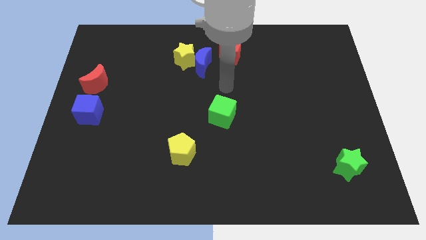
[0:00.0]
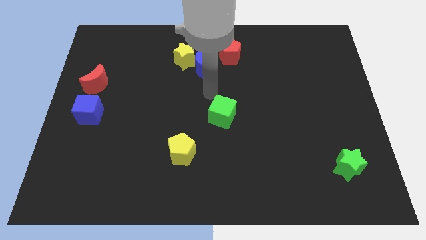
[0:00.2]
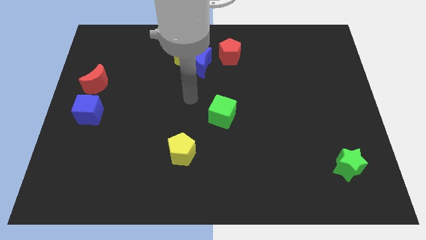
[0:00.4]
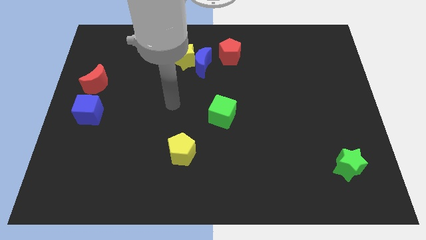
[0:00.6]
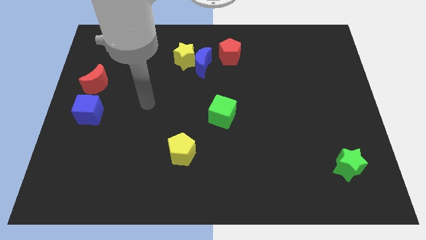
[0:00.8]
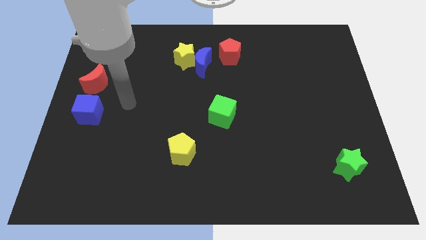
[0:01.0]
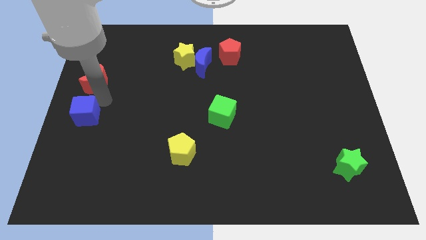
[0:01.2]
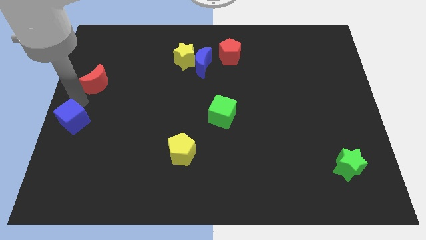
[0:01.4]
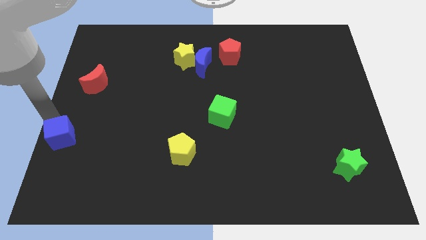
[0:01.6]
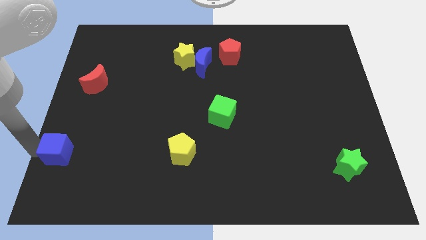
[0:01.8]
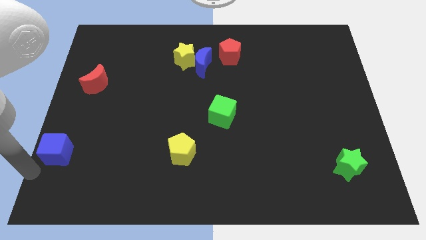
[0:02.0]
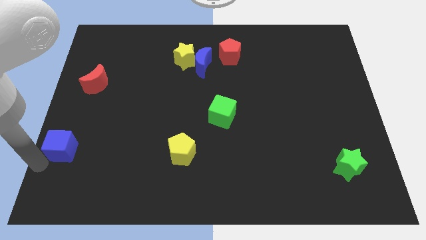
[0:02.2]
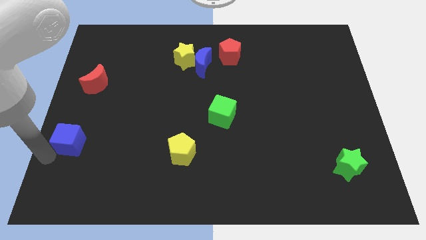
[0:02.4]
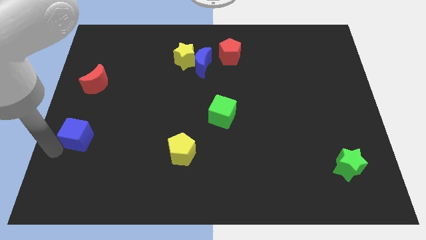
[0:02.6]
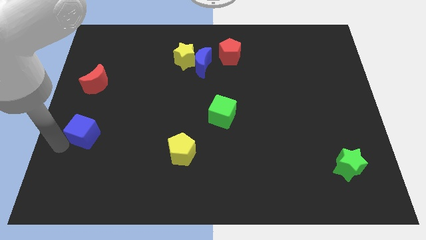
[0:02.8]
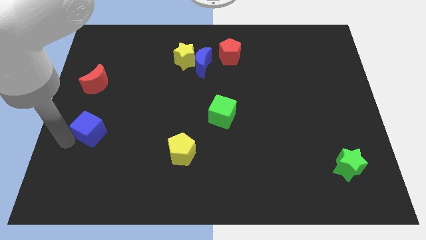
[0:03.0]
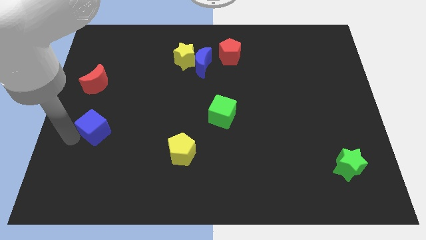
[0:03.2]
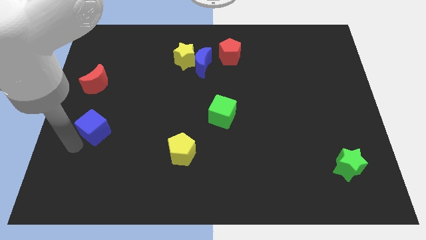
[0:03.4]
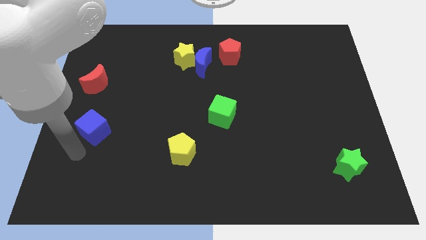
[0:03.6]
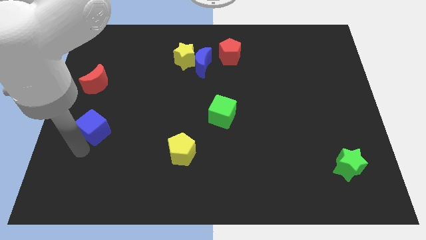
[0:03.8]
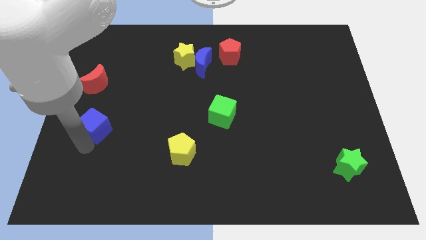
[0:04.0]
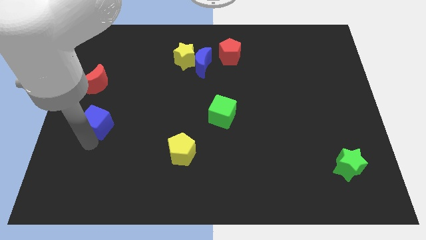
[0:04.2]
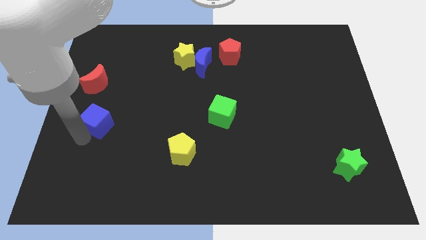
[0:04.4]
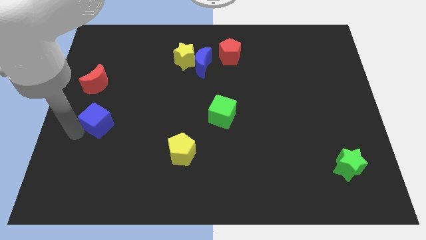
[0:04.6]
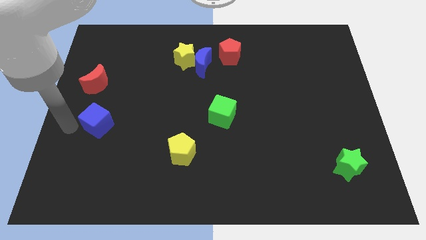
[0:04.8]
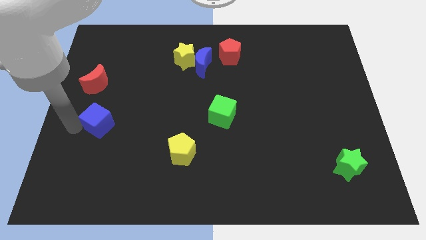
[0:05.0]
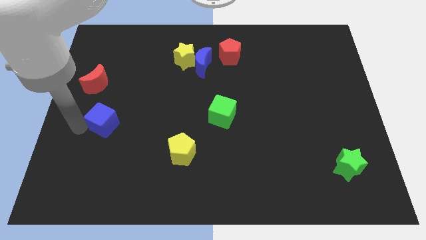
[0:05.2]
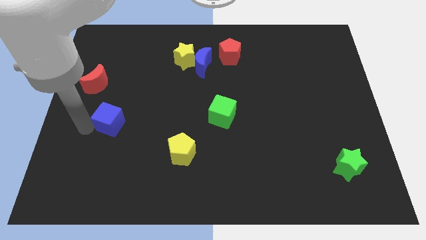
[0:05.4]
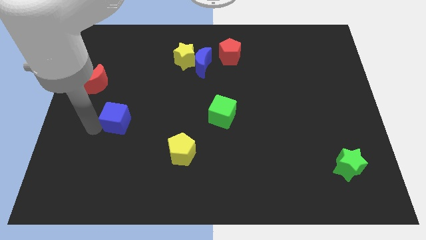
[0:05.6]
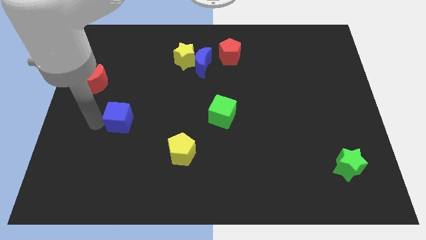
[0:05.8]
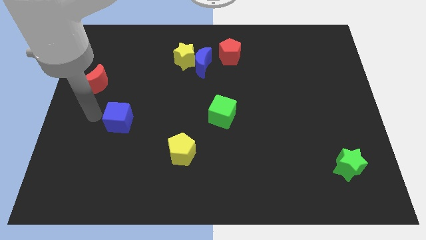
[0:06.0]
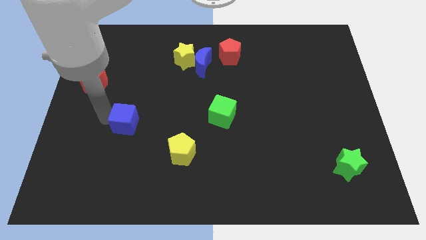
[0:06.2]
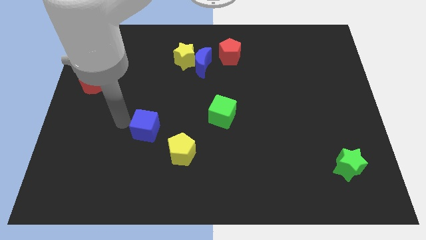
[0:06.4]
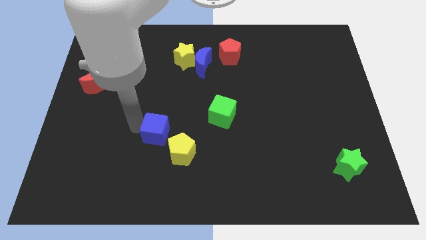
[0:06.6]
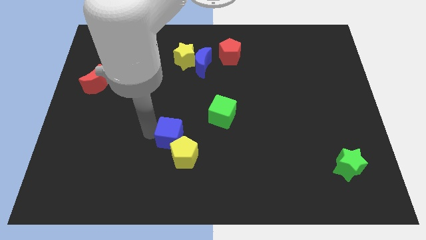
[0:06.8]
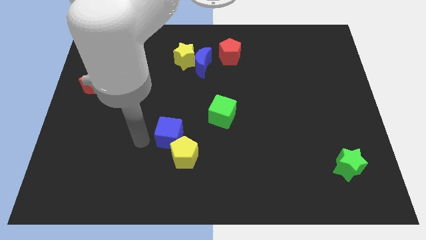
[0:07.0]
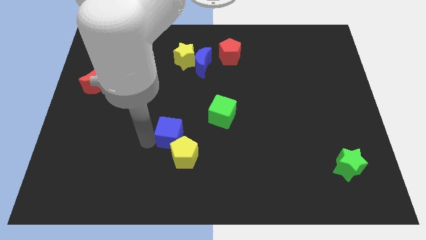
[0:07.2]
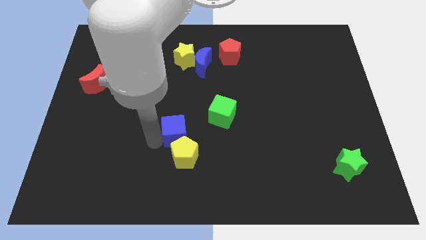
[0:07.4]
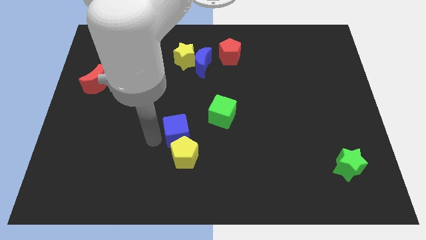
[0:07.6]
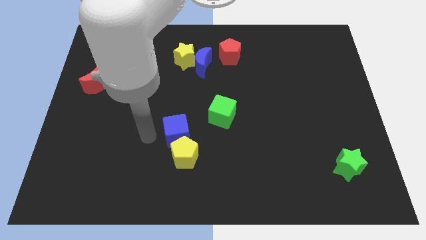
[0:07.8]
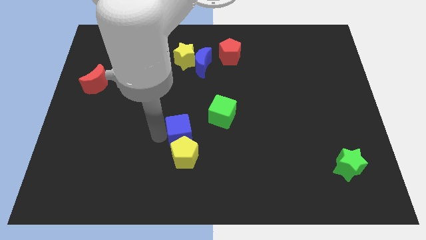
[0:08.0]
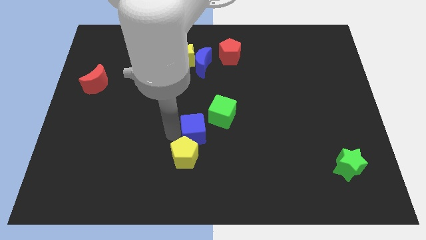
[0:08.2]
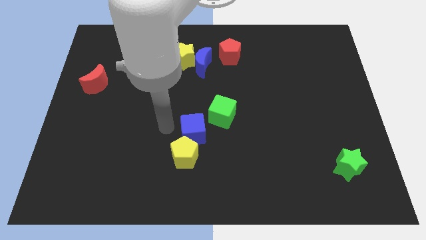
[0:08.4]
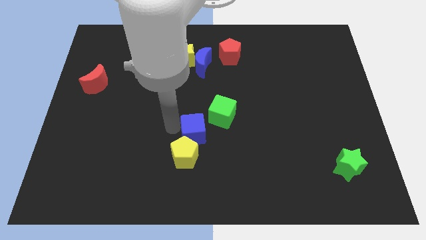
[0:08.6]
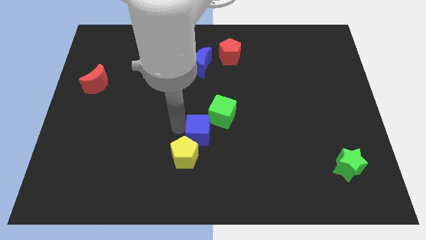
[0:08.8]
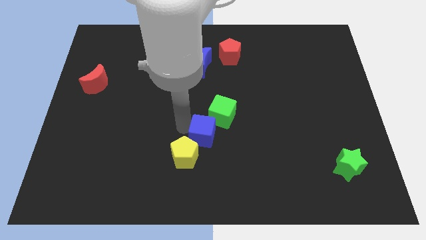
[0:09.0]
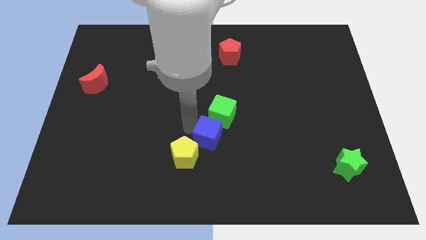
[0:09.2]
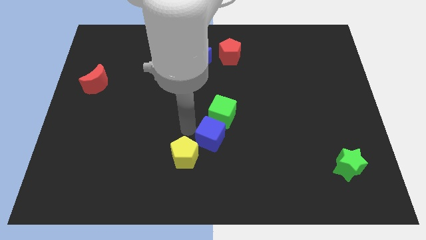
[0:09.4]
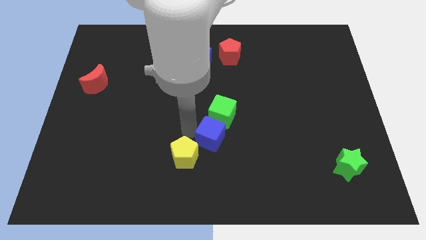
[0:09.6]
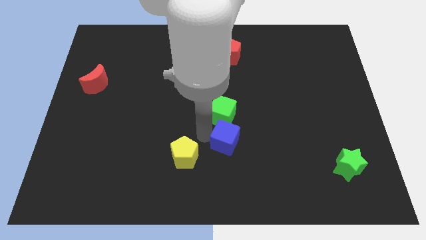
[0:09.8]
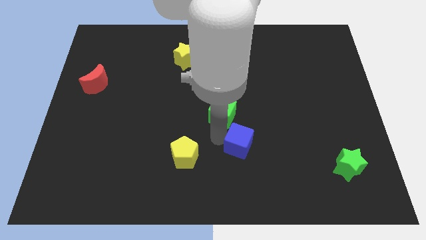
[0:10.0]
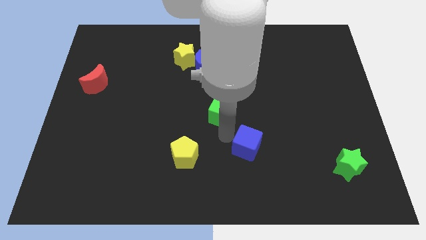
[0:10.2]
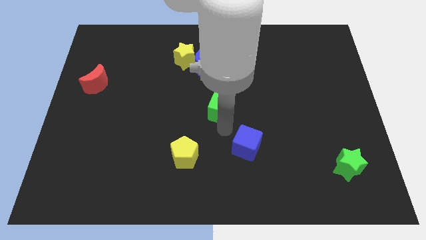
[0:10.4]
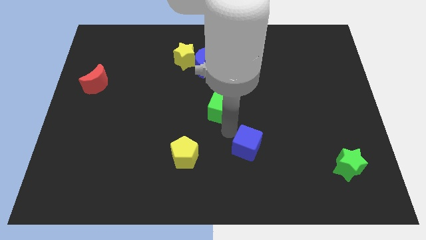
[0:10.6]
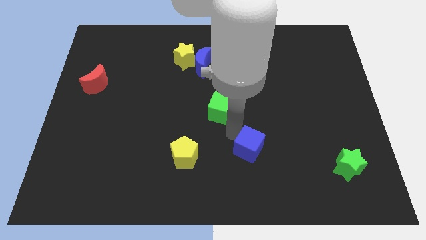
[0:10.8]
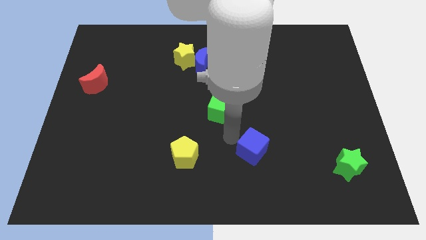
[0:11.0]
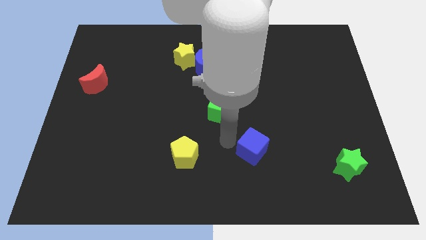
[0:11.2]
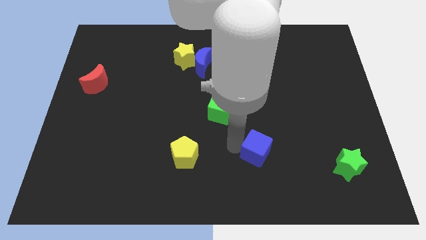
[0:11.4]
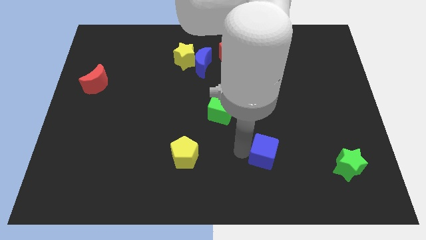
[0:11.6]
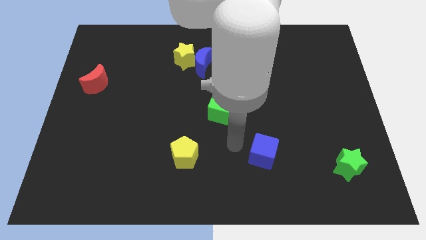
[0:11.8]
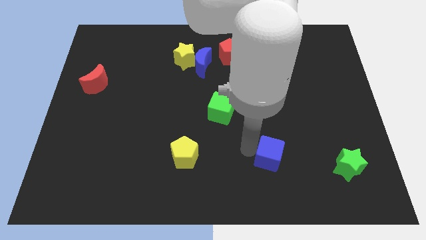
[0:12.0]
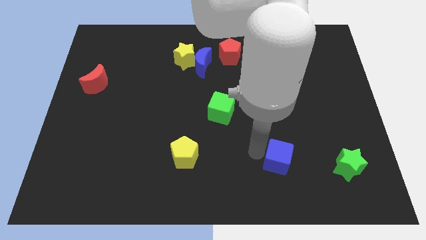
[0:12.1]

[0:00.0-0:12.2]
push the blue cube to the left of the green star

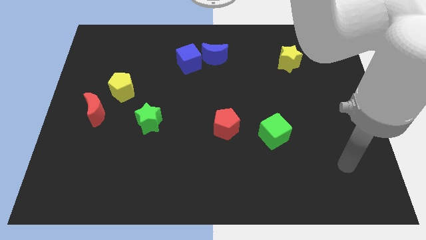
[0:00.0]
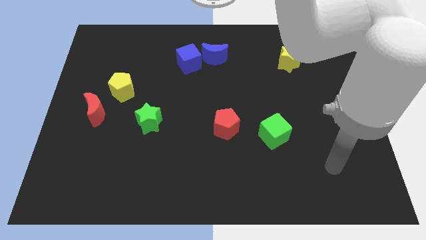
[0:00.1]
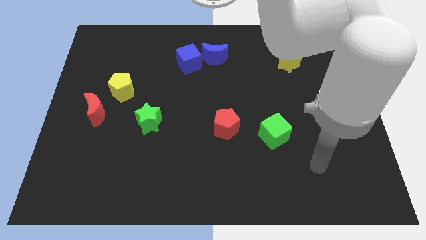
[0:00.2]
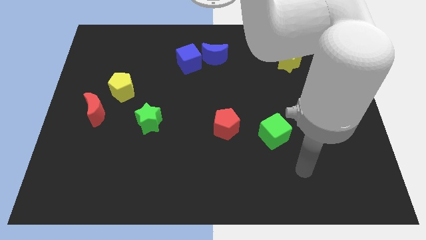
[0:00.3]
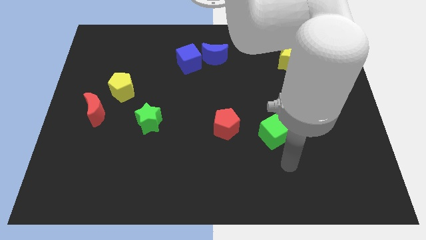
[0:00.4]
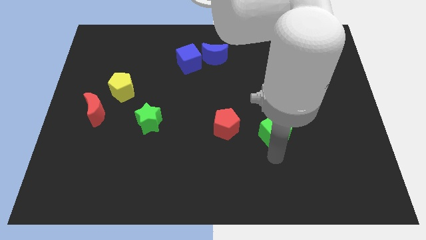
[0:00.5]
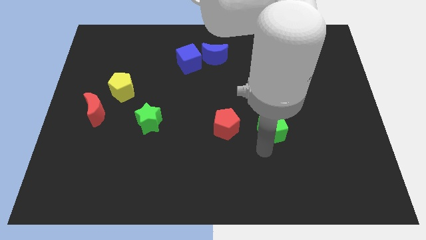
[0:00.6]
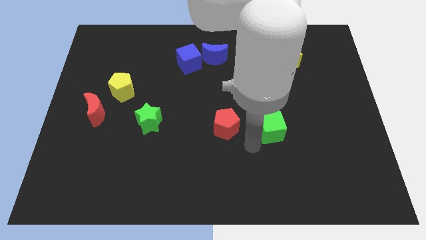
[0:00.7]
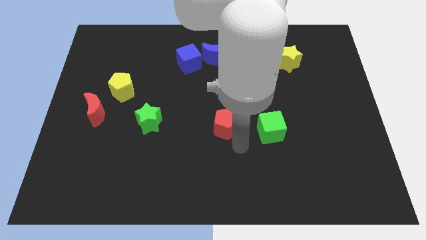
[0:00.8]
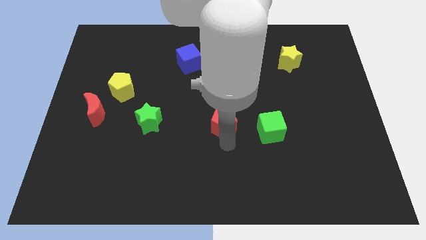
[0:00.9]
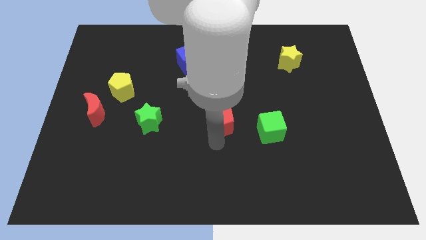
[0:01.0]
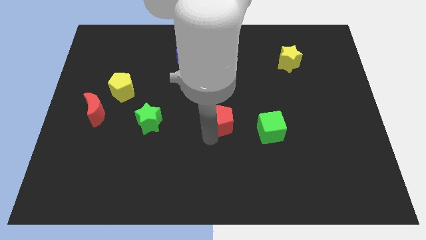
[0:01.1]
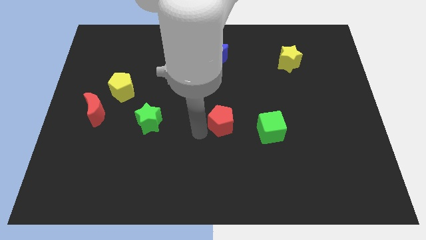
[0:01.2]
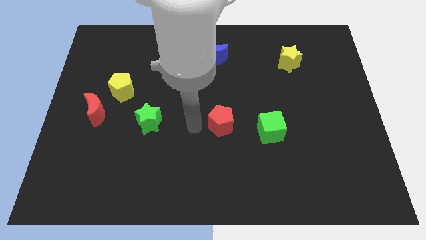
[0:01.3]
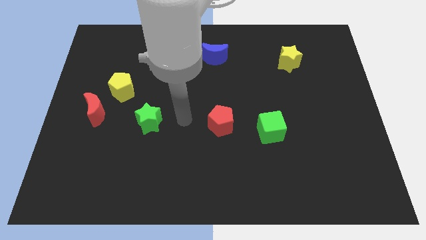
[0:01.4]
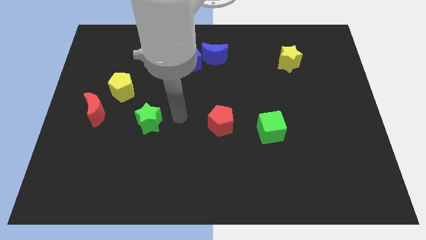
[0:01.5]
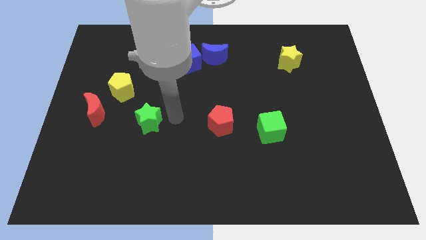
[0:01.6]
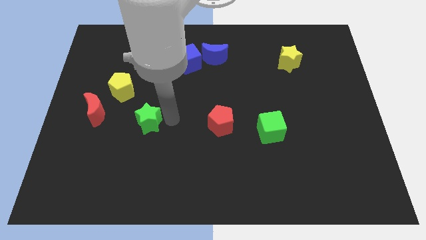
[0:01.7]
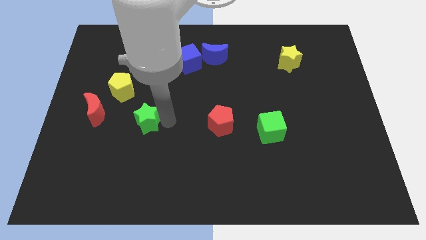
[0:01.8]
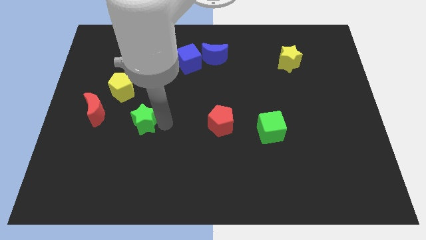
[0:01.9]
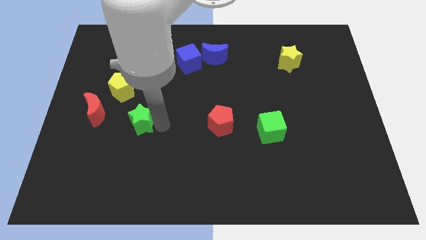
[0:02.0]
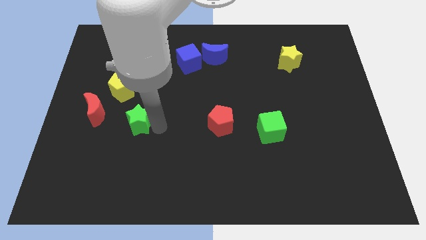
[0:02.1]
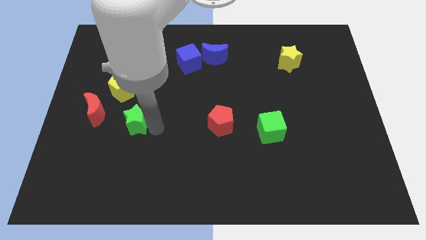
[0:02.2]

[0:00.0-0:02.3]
move the green star diagonally down and to the right of the red moon
